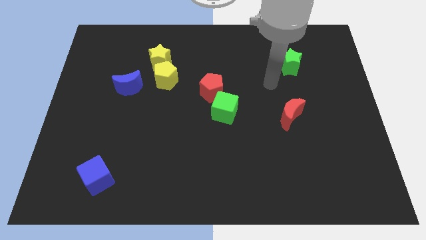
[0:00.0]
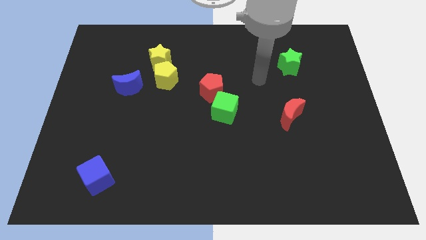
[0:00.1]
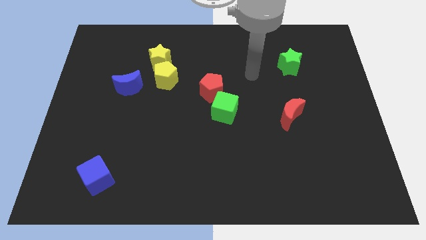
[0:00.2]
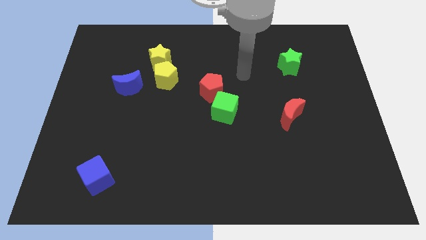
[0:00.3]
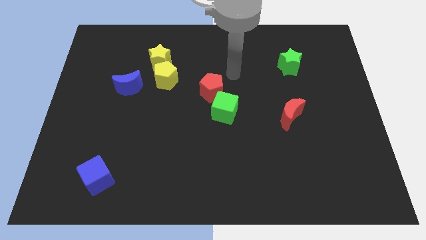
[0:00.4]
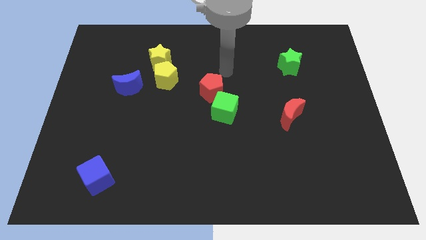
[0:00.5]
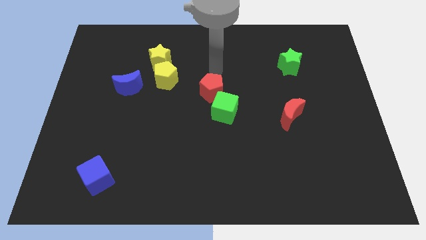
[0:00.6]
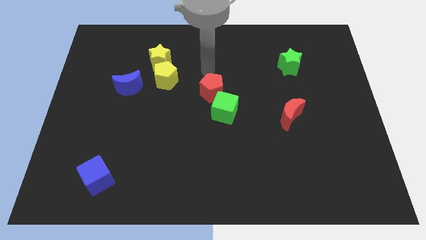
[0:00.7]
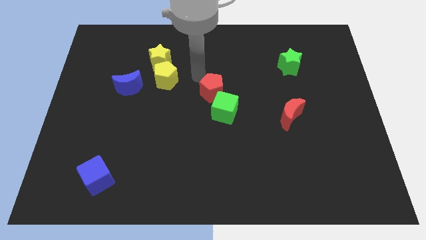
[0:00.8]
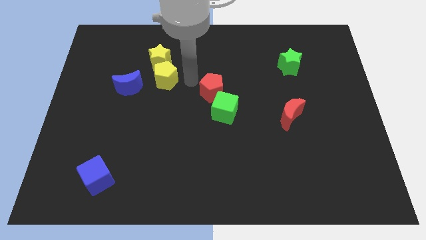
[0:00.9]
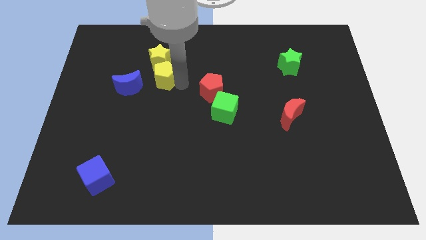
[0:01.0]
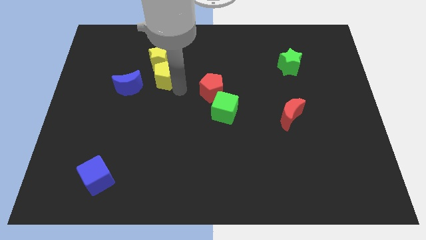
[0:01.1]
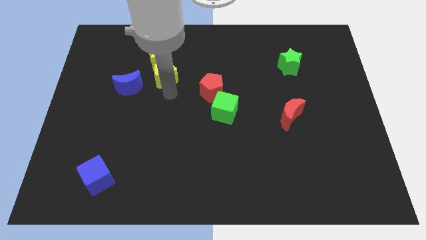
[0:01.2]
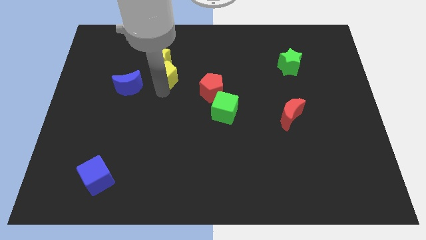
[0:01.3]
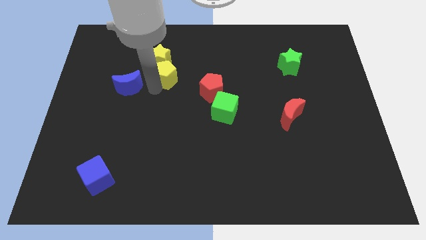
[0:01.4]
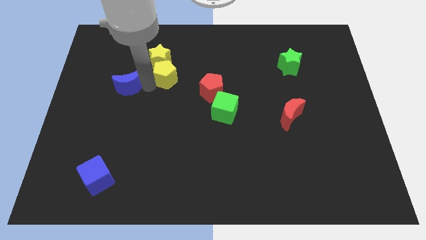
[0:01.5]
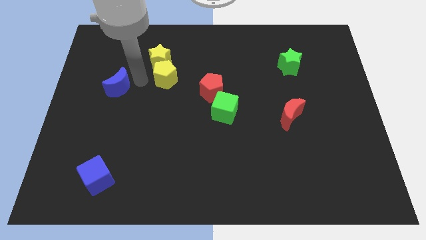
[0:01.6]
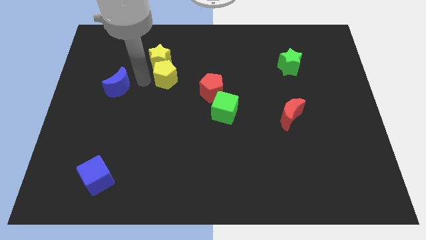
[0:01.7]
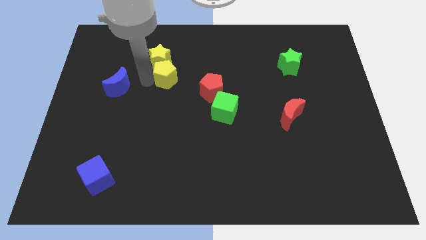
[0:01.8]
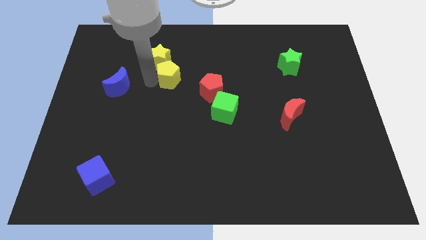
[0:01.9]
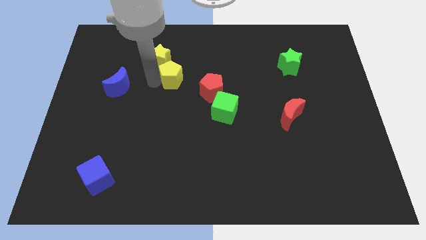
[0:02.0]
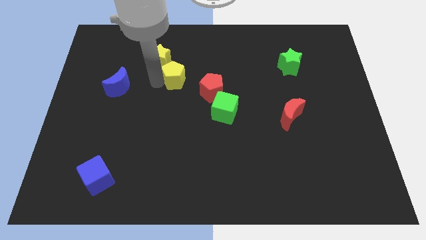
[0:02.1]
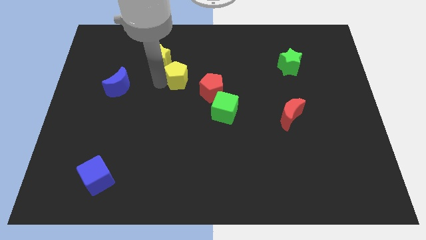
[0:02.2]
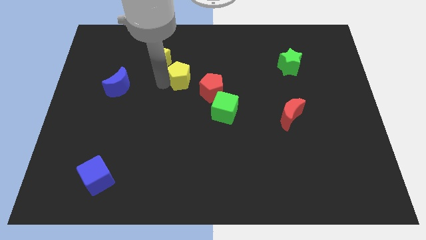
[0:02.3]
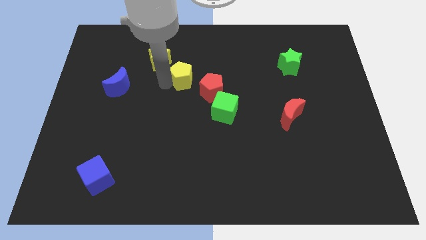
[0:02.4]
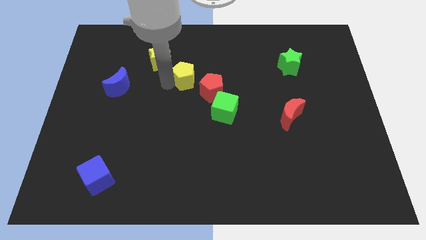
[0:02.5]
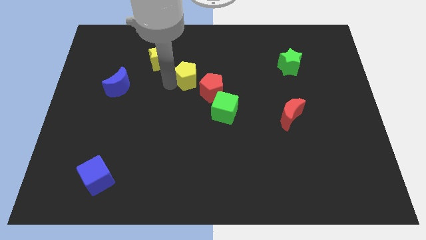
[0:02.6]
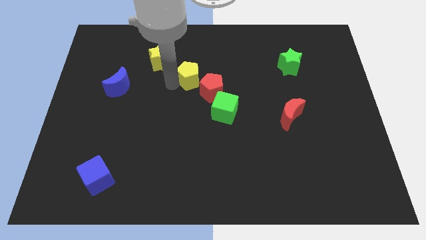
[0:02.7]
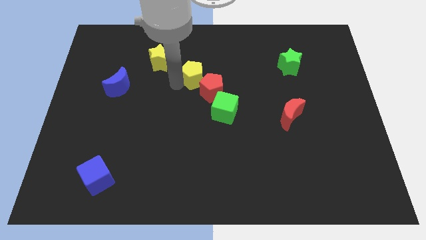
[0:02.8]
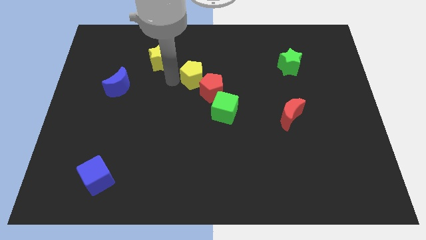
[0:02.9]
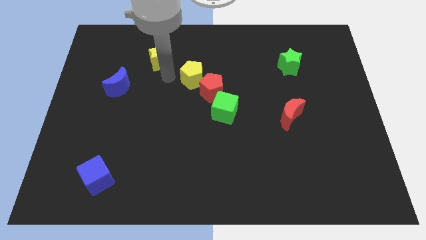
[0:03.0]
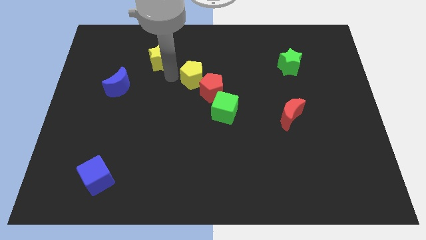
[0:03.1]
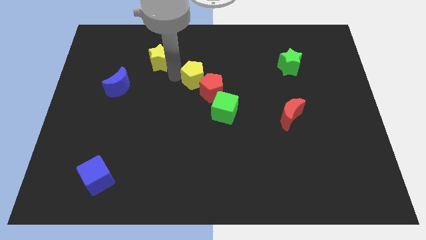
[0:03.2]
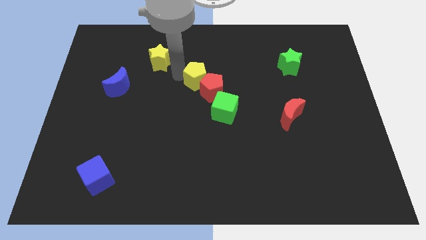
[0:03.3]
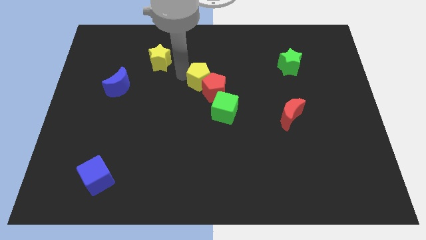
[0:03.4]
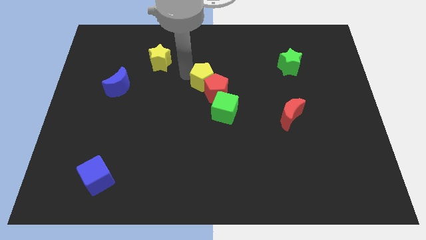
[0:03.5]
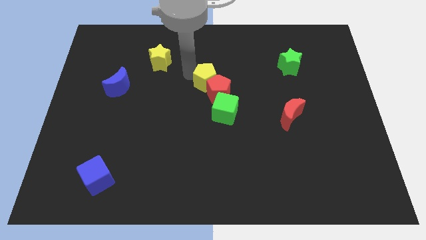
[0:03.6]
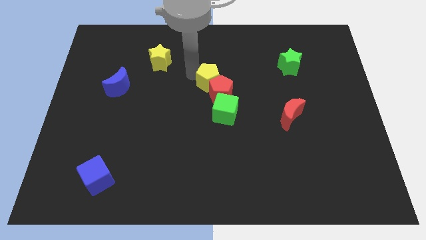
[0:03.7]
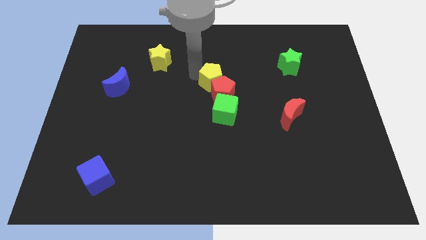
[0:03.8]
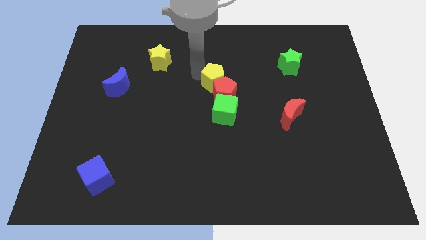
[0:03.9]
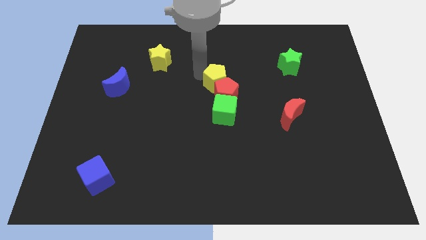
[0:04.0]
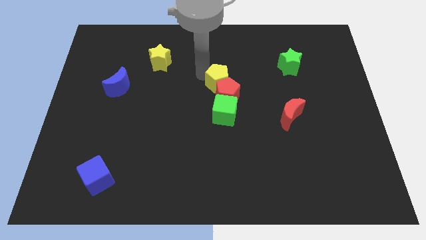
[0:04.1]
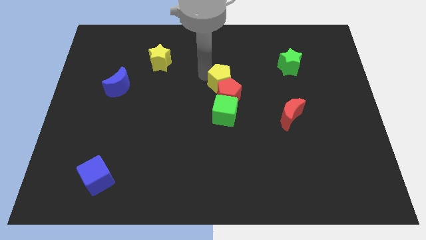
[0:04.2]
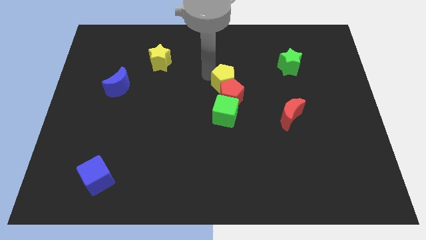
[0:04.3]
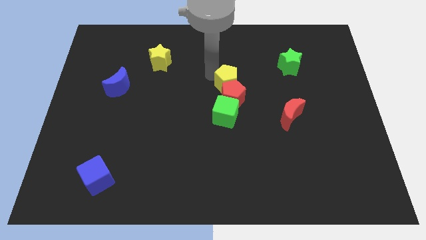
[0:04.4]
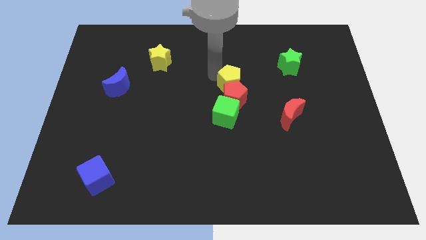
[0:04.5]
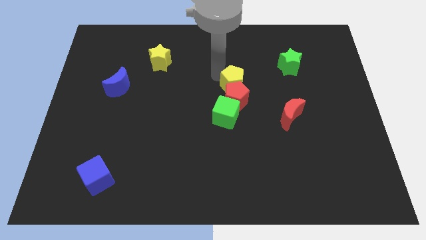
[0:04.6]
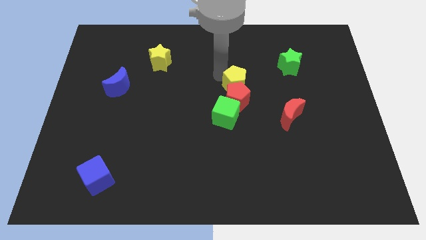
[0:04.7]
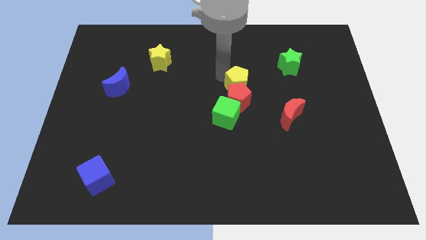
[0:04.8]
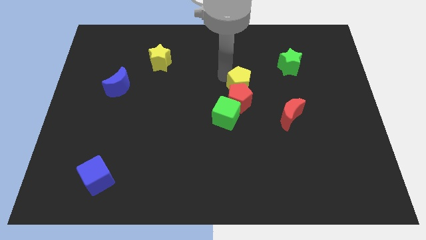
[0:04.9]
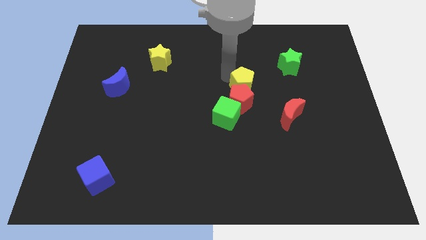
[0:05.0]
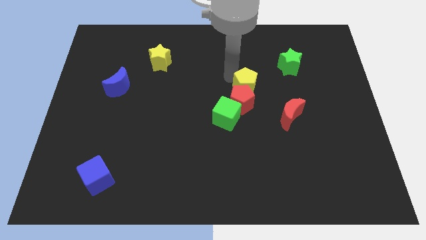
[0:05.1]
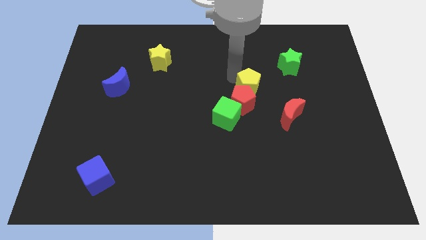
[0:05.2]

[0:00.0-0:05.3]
push the yellow pentagon to the top left side of the red moon

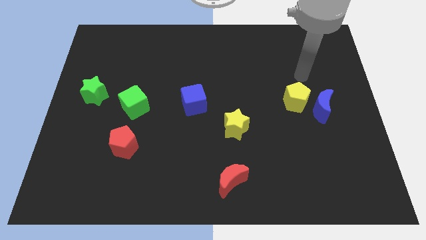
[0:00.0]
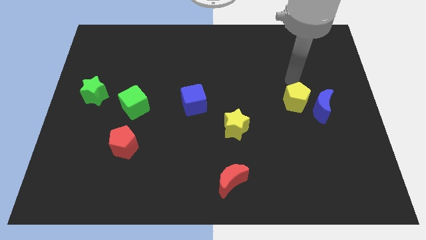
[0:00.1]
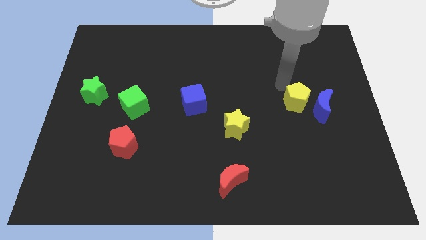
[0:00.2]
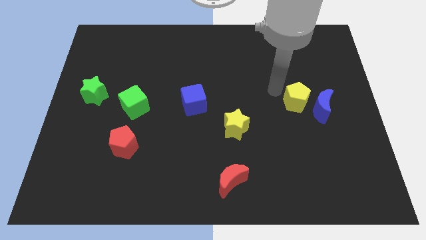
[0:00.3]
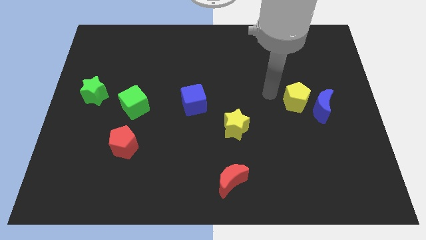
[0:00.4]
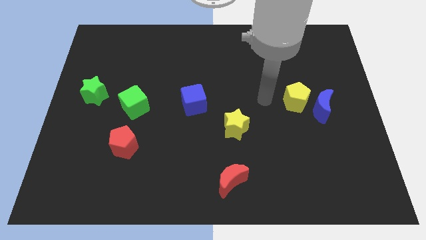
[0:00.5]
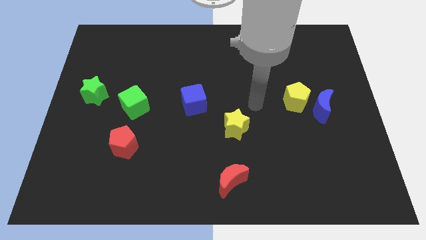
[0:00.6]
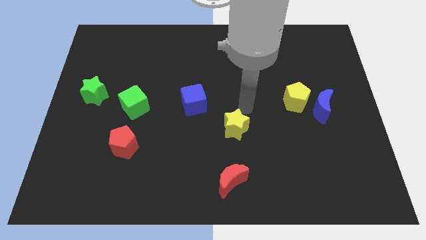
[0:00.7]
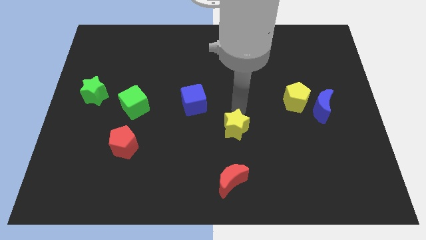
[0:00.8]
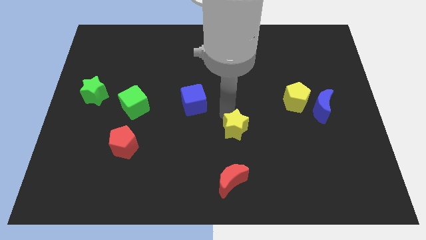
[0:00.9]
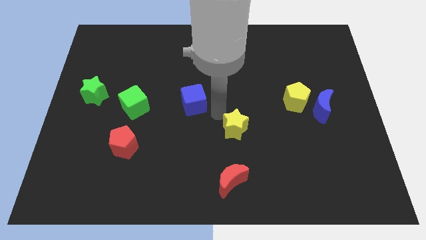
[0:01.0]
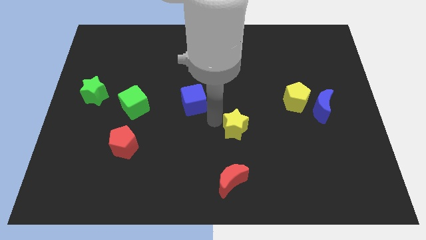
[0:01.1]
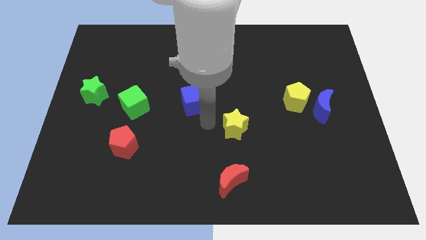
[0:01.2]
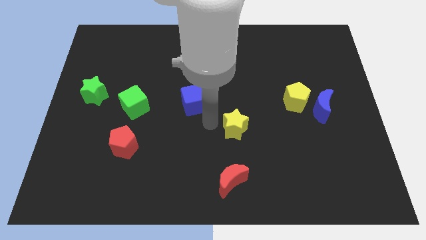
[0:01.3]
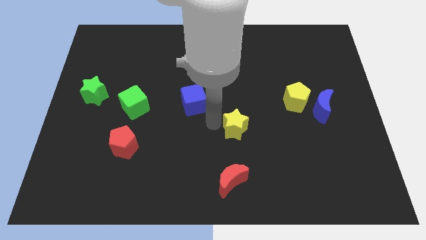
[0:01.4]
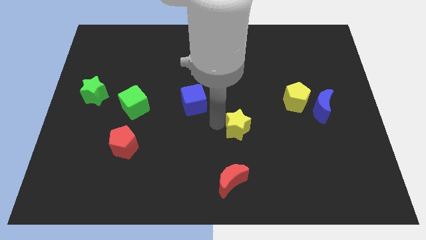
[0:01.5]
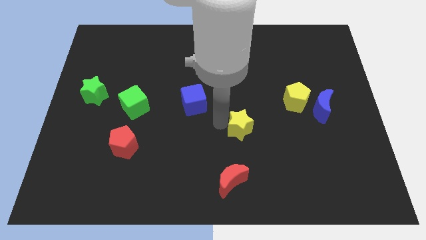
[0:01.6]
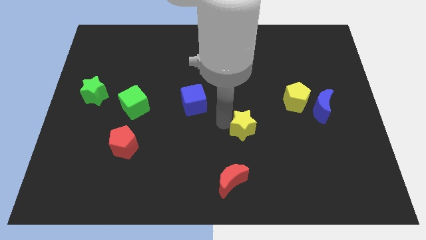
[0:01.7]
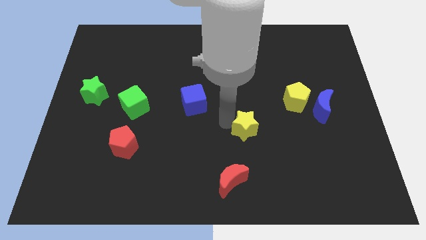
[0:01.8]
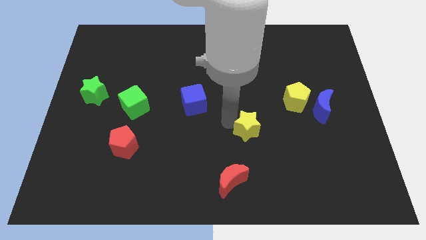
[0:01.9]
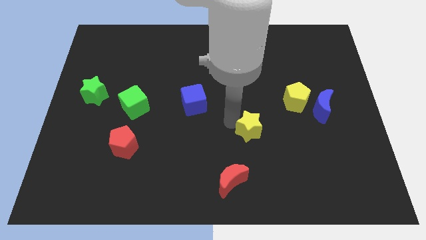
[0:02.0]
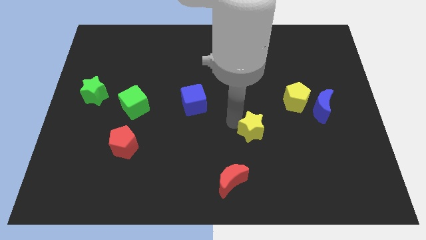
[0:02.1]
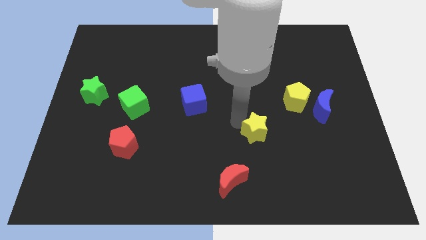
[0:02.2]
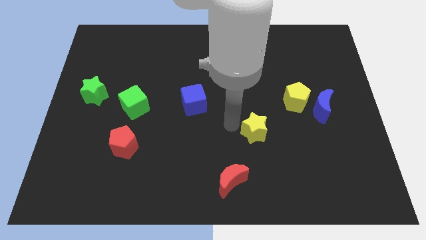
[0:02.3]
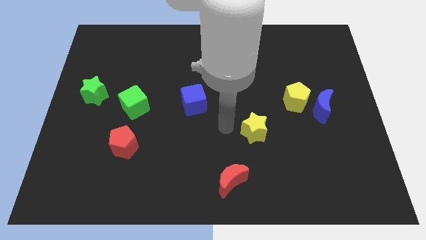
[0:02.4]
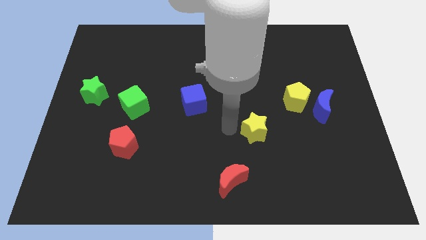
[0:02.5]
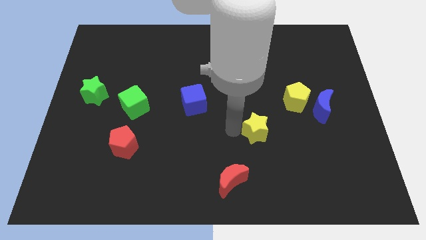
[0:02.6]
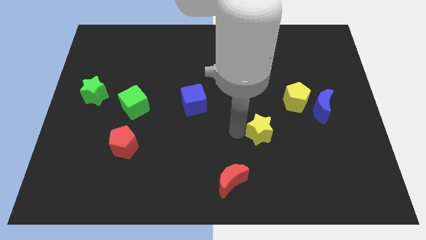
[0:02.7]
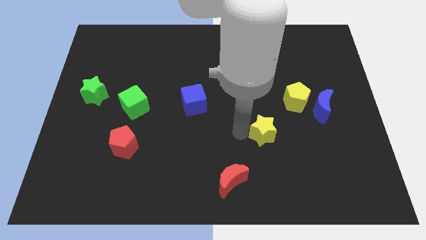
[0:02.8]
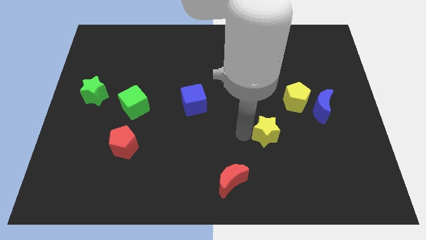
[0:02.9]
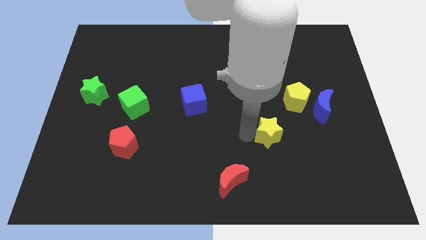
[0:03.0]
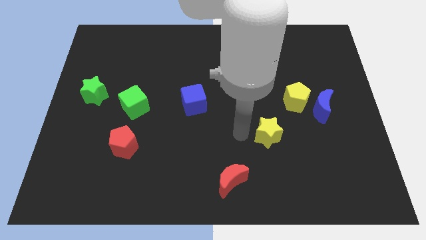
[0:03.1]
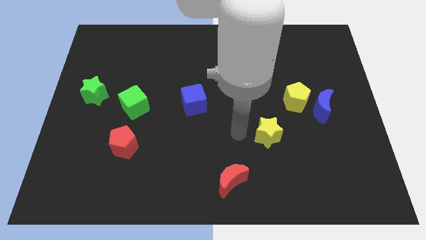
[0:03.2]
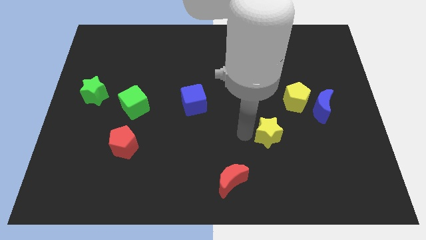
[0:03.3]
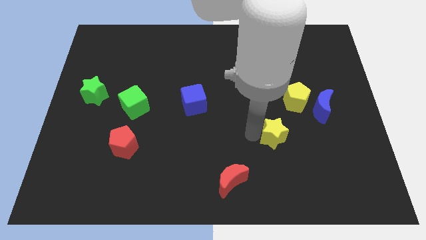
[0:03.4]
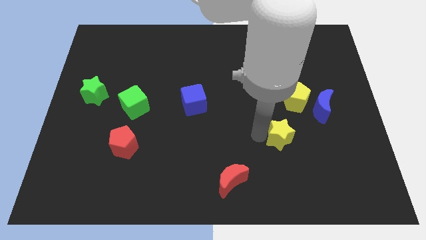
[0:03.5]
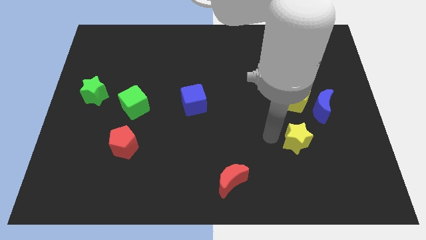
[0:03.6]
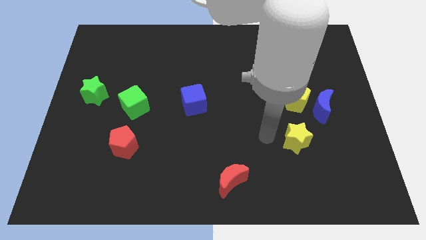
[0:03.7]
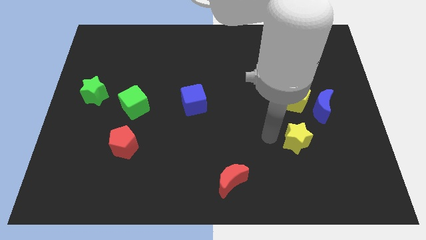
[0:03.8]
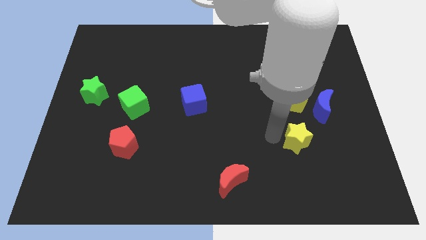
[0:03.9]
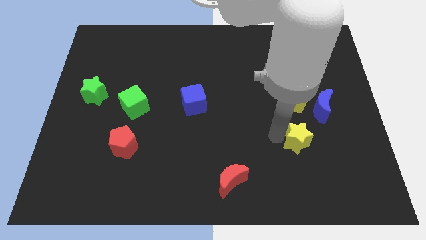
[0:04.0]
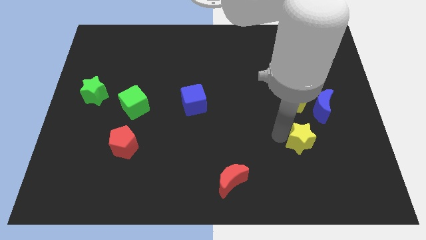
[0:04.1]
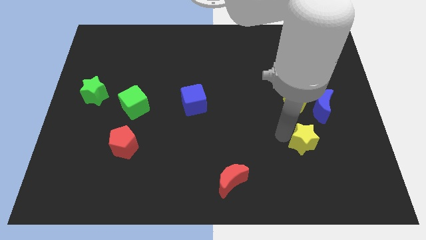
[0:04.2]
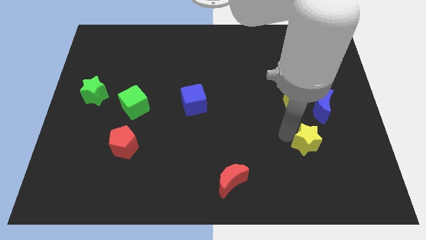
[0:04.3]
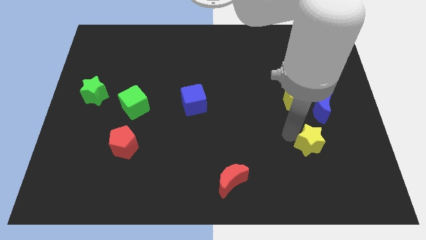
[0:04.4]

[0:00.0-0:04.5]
put the yellow star to the bottom side of the blue moon
